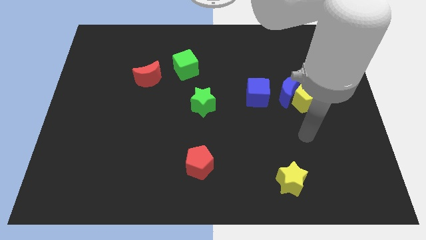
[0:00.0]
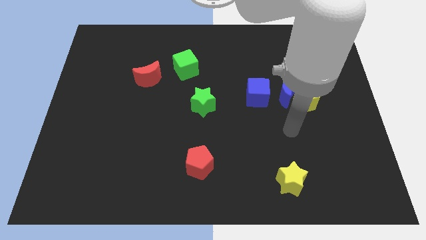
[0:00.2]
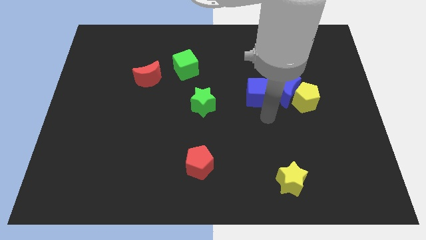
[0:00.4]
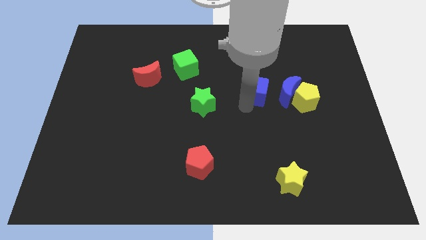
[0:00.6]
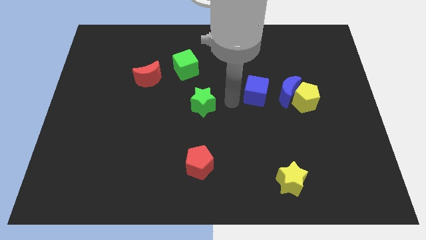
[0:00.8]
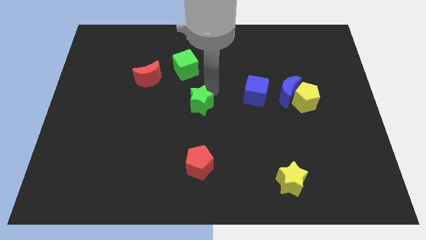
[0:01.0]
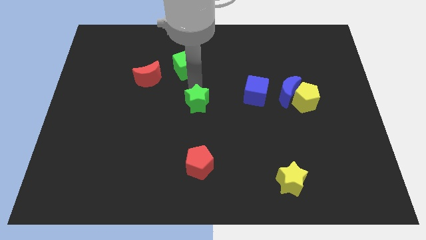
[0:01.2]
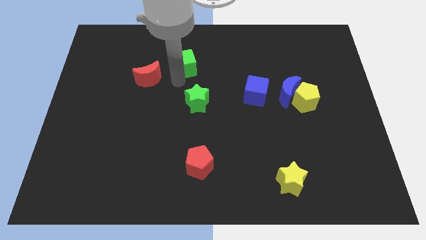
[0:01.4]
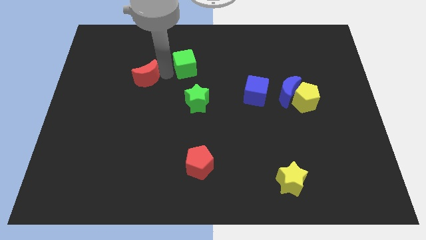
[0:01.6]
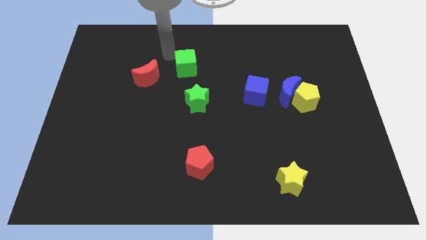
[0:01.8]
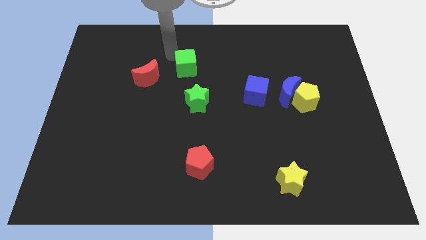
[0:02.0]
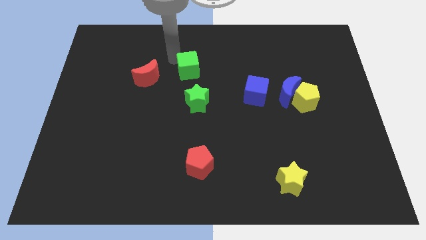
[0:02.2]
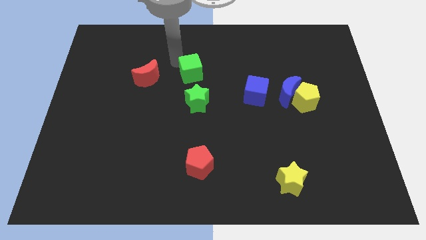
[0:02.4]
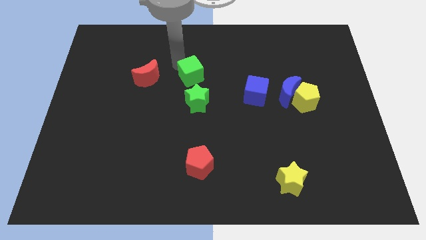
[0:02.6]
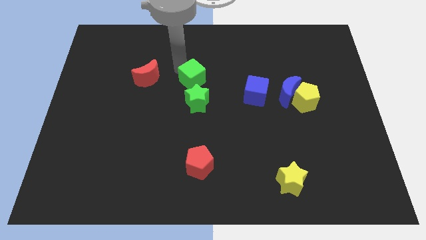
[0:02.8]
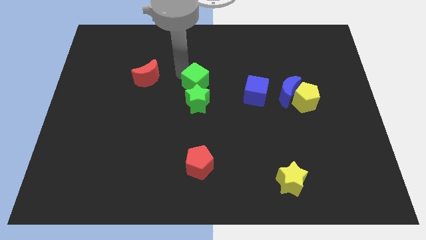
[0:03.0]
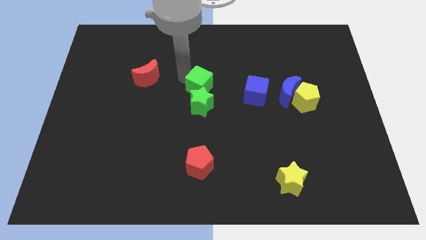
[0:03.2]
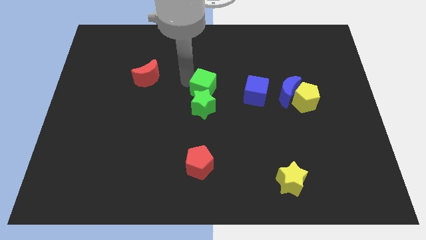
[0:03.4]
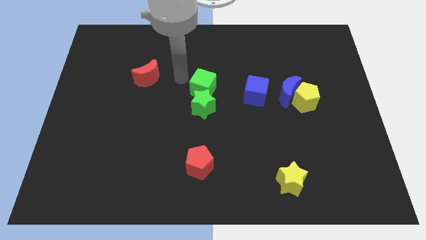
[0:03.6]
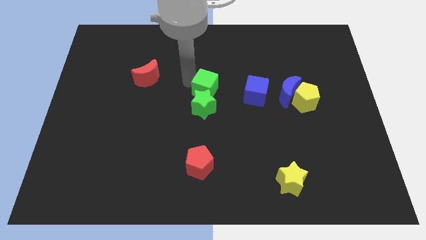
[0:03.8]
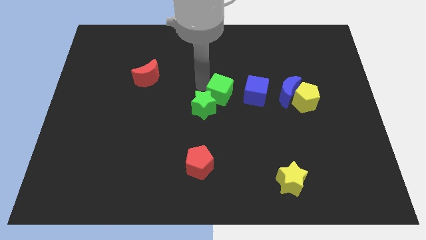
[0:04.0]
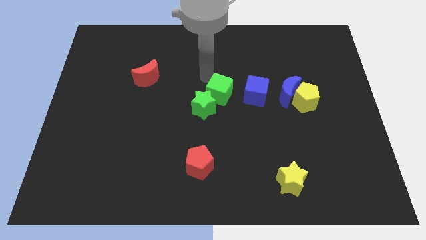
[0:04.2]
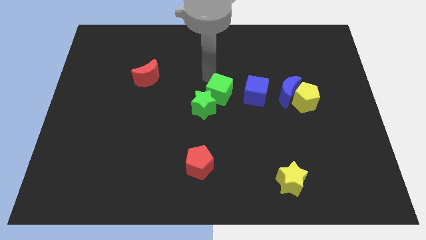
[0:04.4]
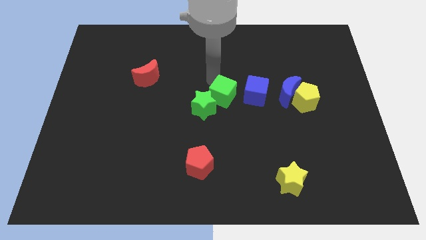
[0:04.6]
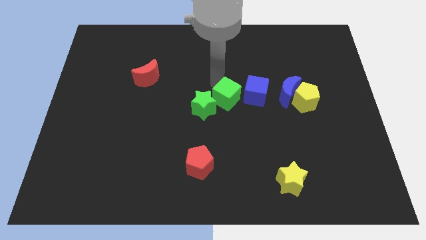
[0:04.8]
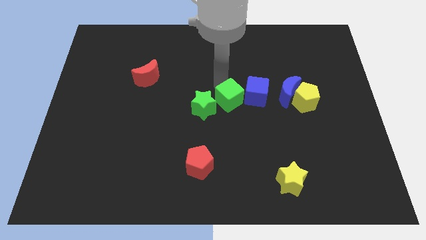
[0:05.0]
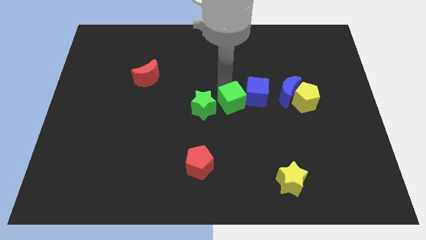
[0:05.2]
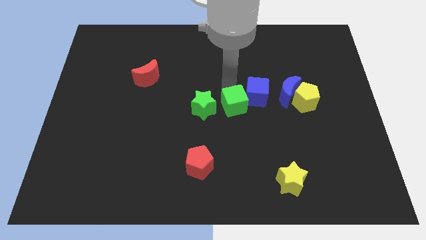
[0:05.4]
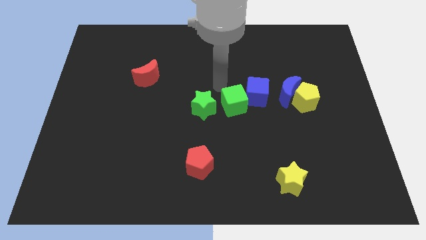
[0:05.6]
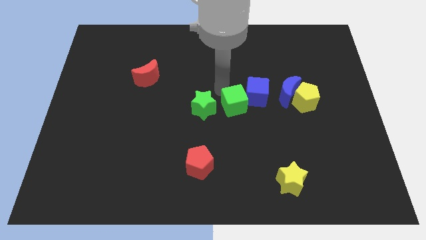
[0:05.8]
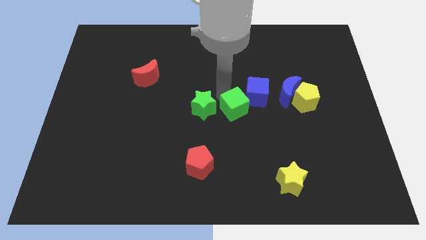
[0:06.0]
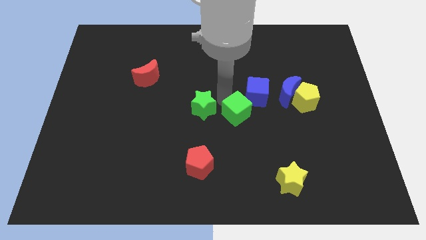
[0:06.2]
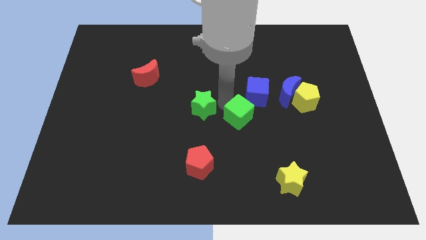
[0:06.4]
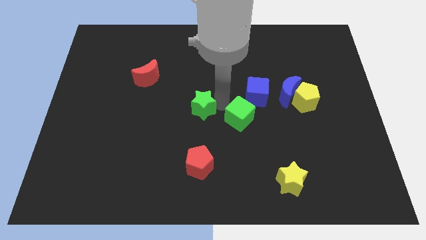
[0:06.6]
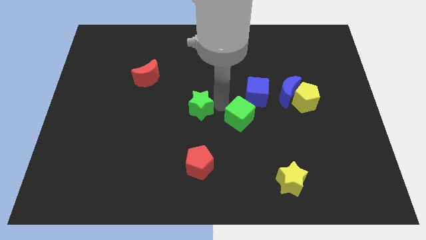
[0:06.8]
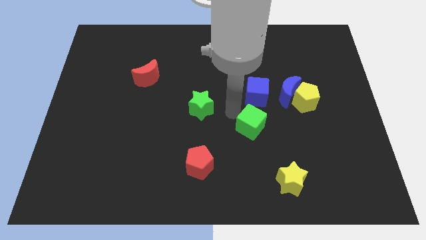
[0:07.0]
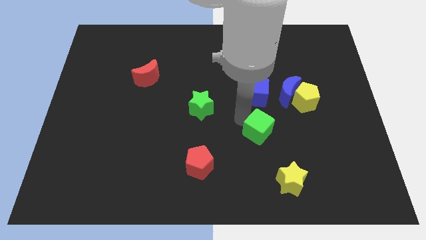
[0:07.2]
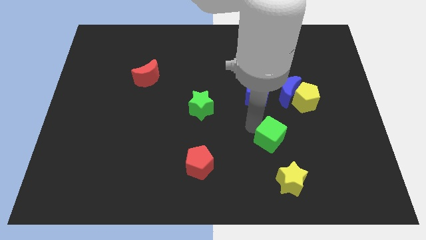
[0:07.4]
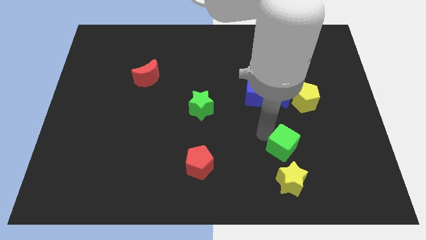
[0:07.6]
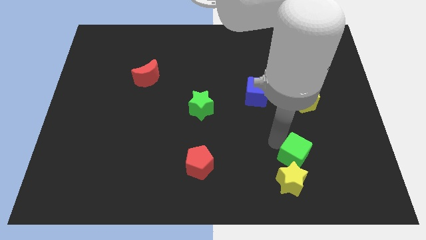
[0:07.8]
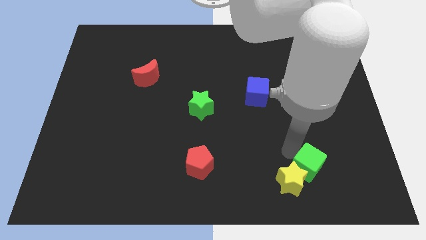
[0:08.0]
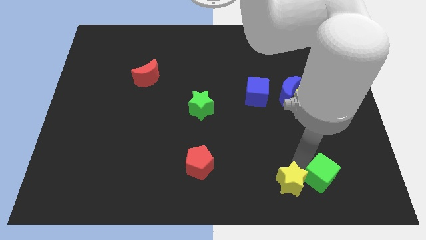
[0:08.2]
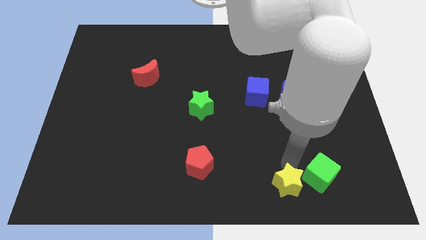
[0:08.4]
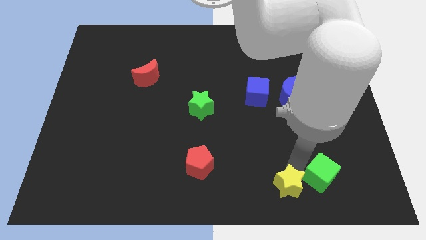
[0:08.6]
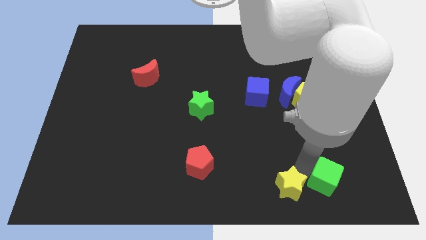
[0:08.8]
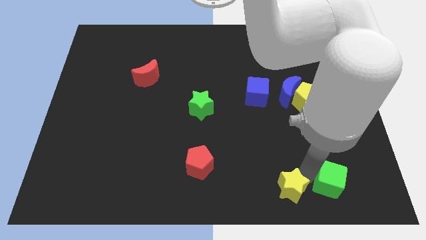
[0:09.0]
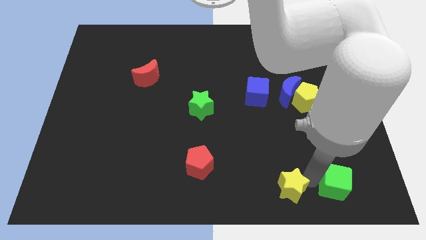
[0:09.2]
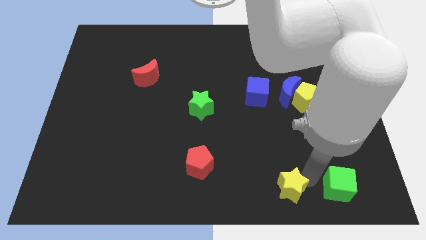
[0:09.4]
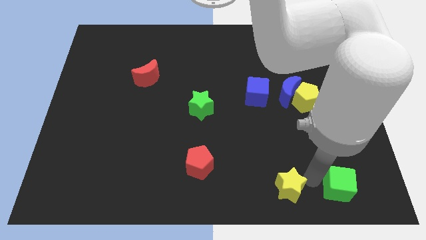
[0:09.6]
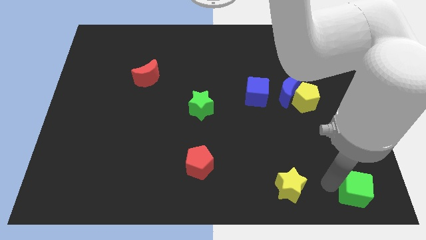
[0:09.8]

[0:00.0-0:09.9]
slide the green cube to the bottom right corner

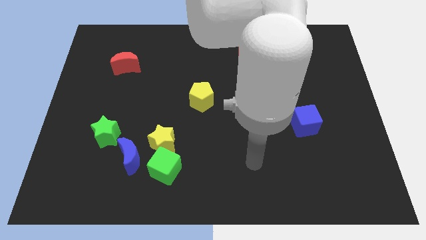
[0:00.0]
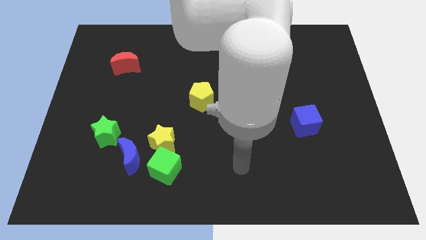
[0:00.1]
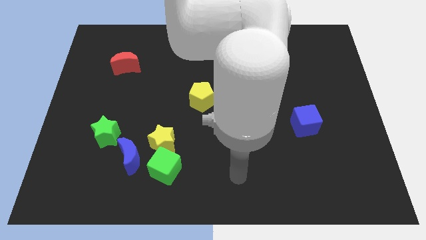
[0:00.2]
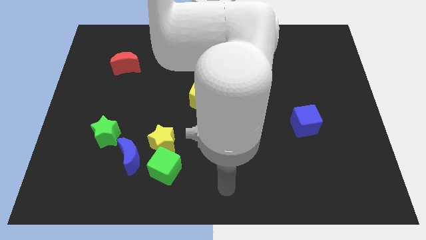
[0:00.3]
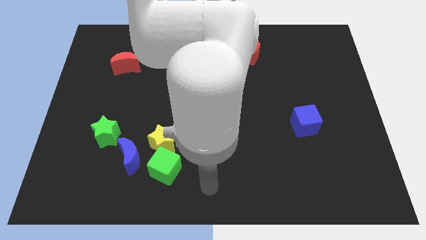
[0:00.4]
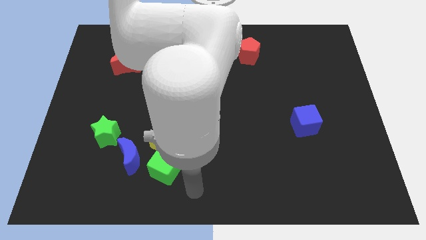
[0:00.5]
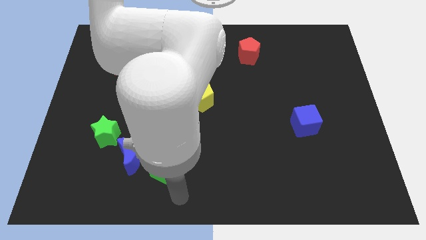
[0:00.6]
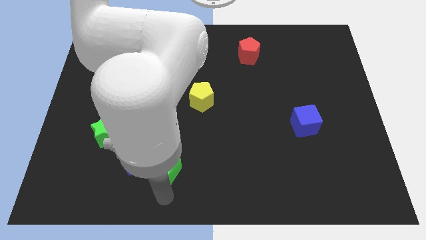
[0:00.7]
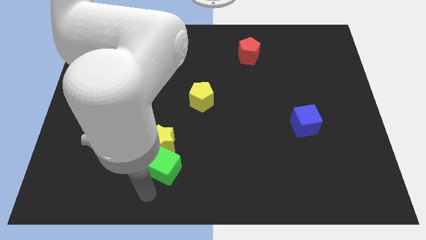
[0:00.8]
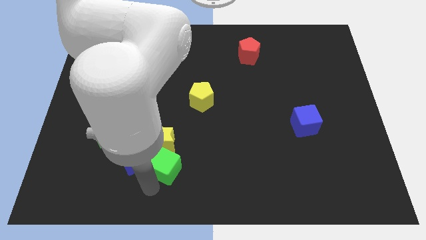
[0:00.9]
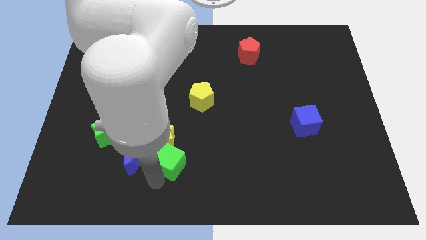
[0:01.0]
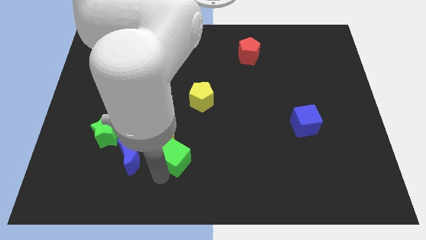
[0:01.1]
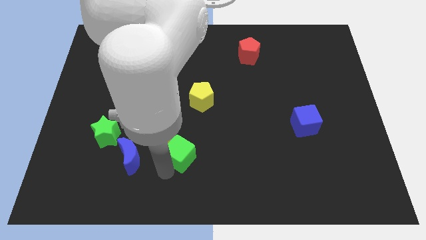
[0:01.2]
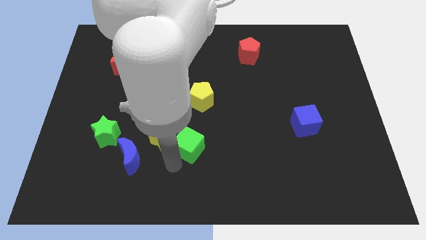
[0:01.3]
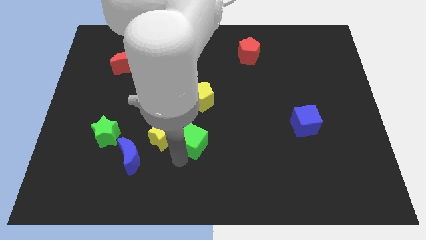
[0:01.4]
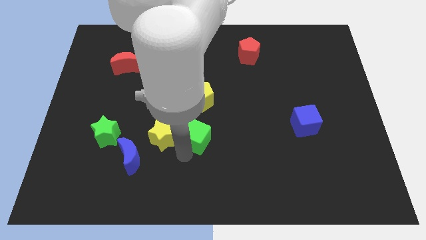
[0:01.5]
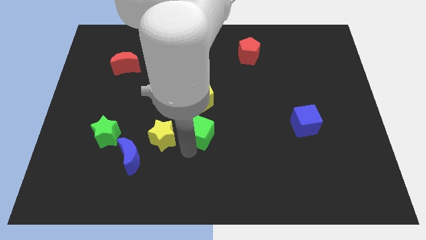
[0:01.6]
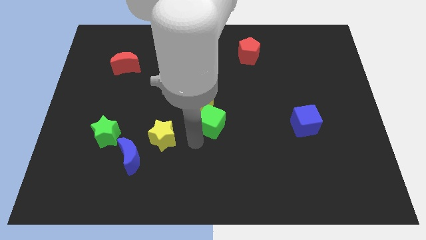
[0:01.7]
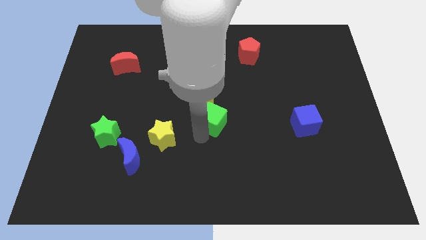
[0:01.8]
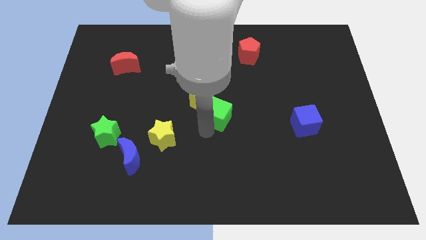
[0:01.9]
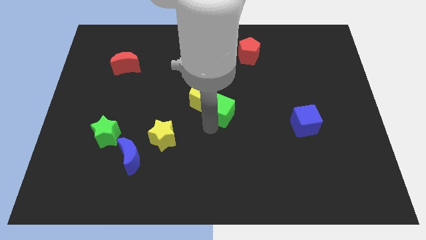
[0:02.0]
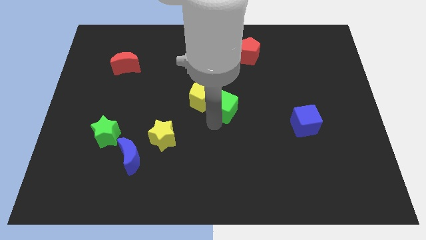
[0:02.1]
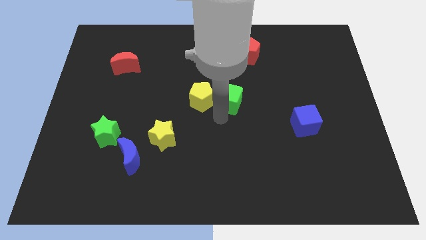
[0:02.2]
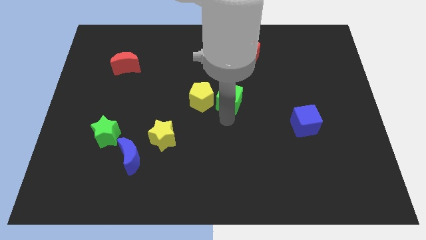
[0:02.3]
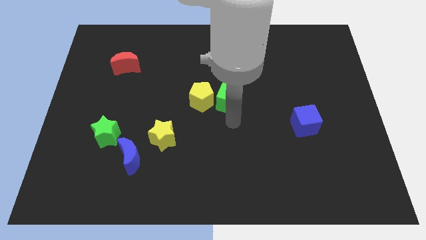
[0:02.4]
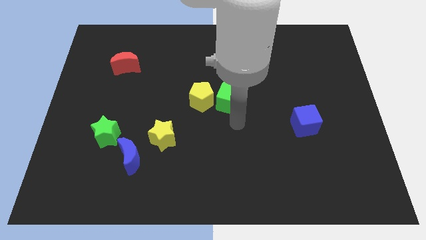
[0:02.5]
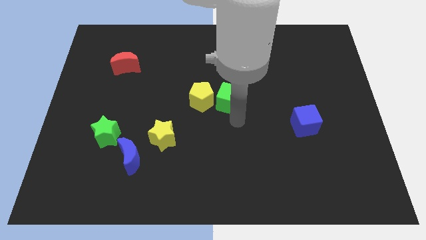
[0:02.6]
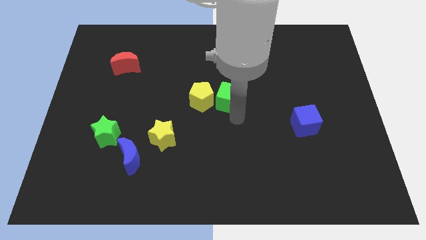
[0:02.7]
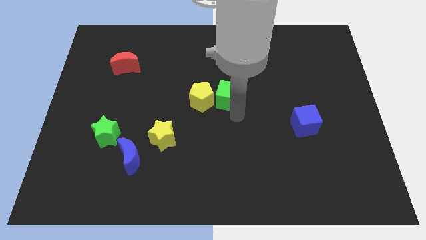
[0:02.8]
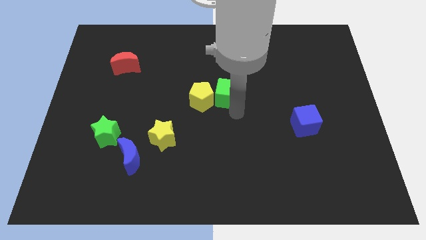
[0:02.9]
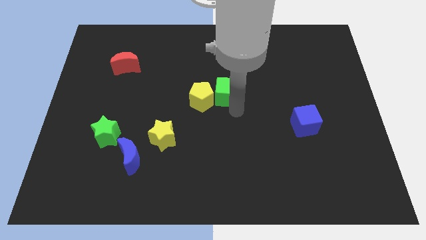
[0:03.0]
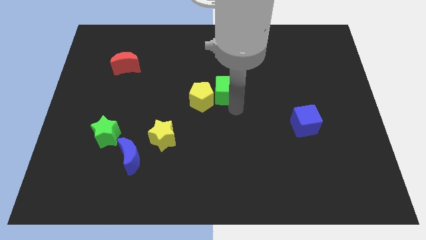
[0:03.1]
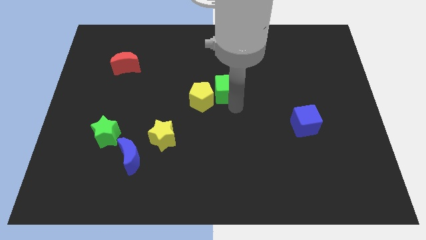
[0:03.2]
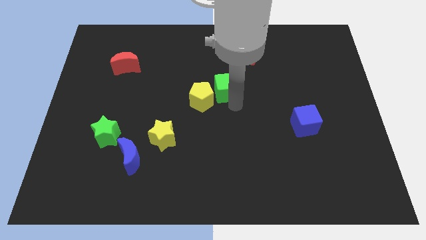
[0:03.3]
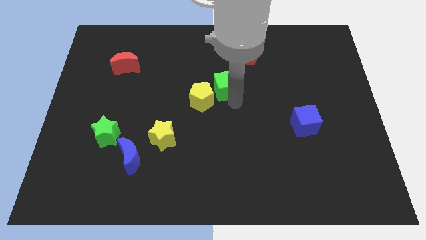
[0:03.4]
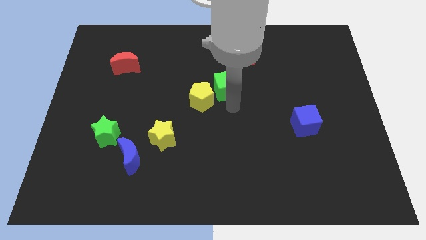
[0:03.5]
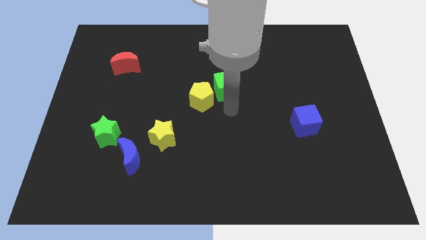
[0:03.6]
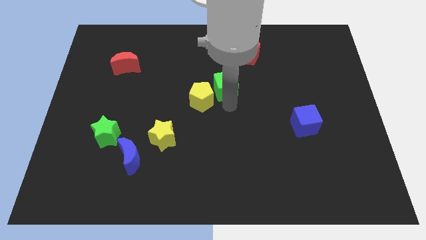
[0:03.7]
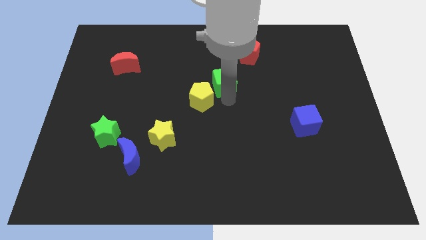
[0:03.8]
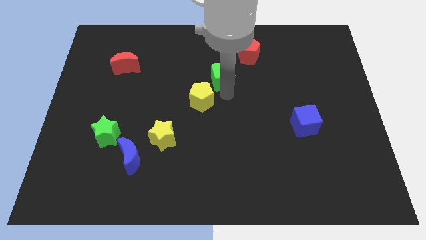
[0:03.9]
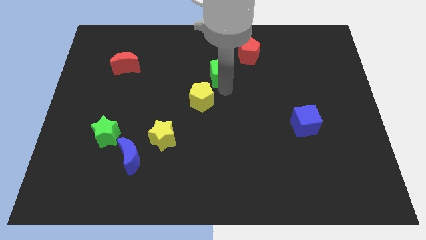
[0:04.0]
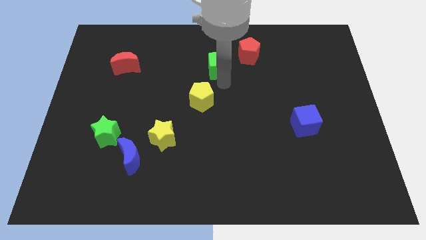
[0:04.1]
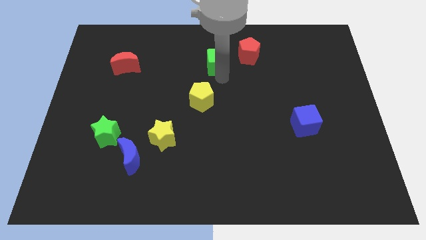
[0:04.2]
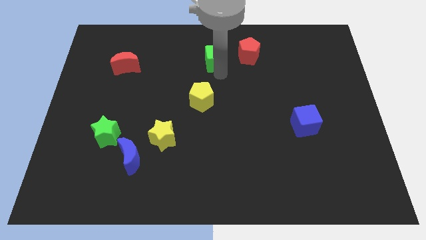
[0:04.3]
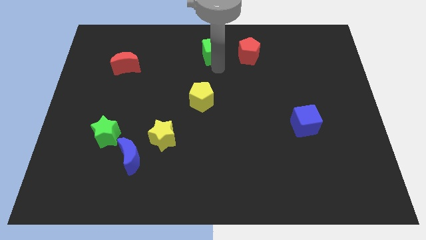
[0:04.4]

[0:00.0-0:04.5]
put the green cube to the top
